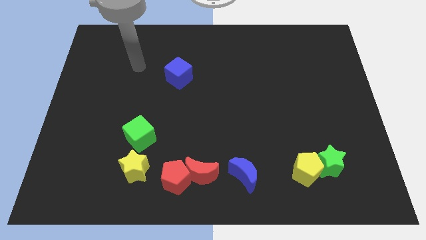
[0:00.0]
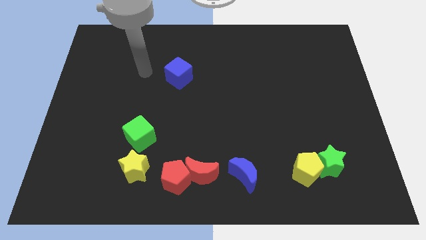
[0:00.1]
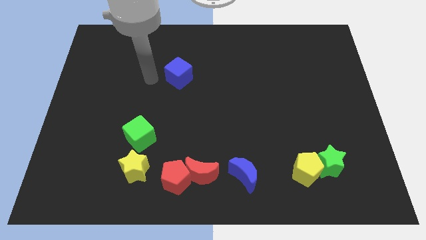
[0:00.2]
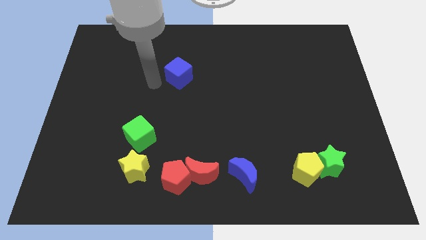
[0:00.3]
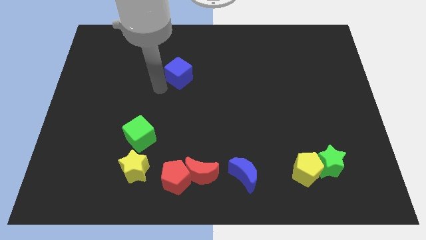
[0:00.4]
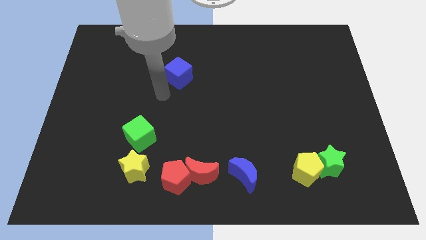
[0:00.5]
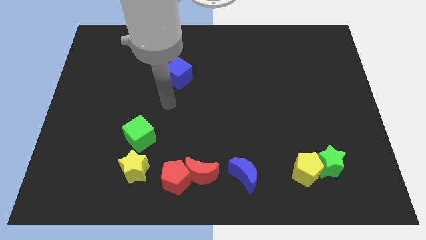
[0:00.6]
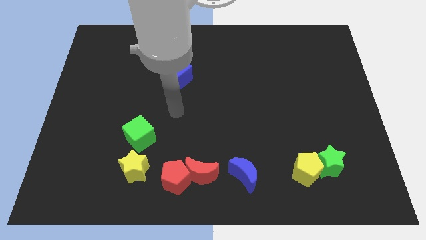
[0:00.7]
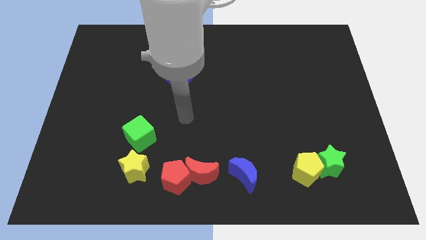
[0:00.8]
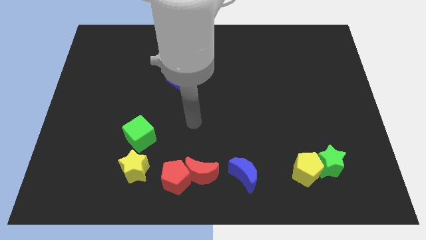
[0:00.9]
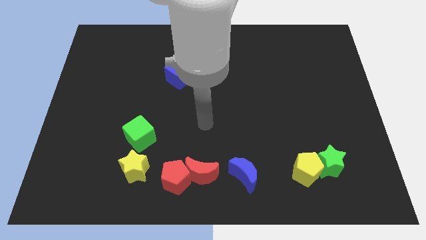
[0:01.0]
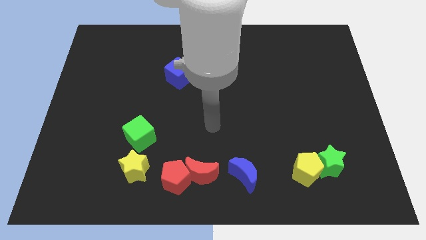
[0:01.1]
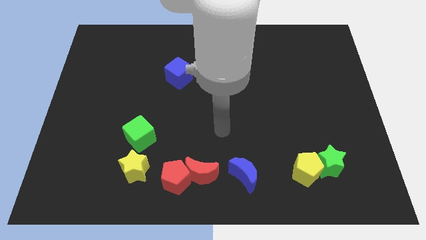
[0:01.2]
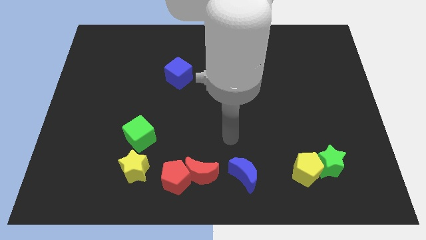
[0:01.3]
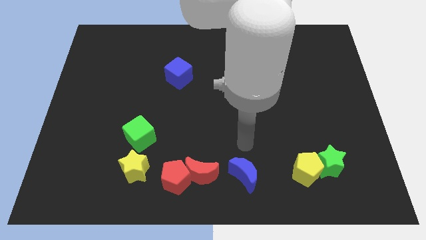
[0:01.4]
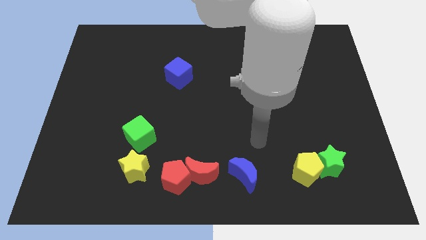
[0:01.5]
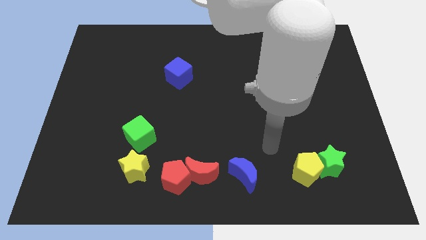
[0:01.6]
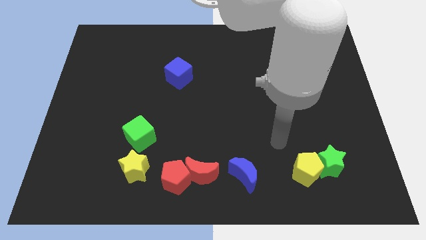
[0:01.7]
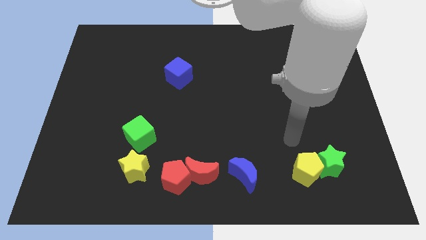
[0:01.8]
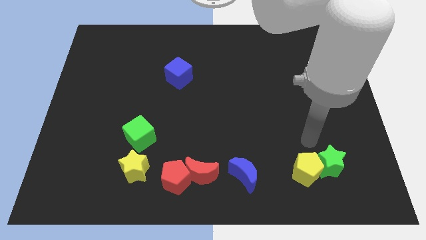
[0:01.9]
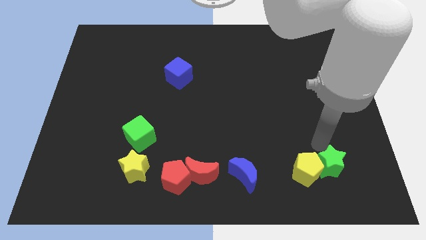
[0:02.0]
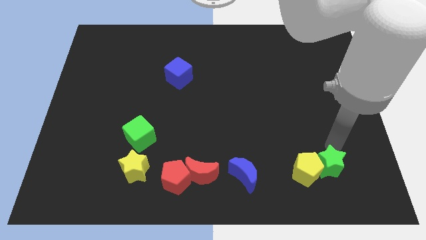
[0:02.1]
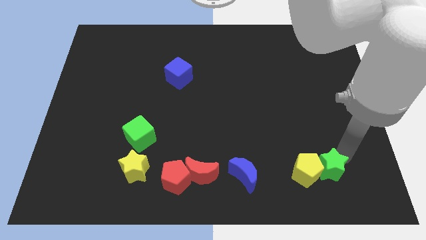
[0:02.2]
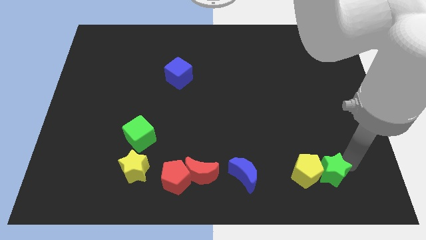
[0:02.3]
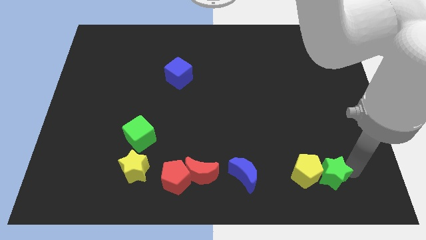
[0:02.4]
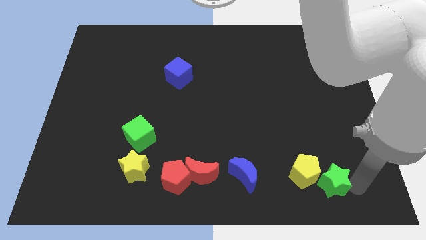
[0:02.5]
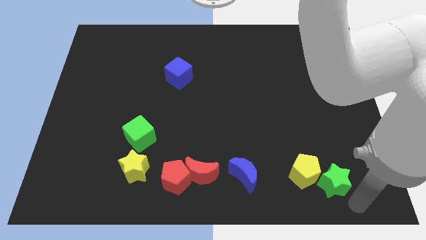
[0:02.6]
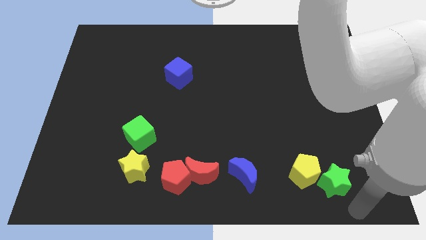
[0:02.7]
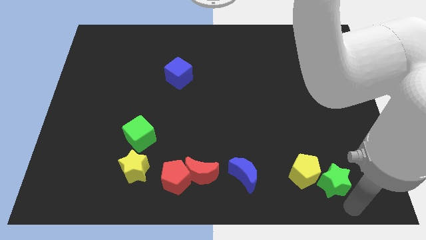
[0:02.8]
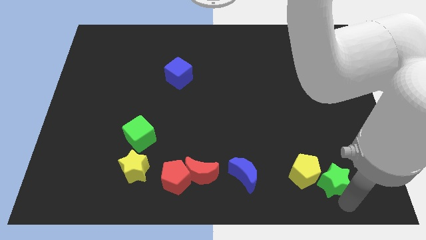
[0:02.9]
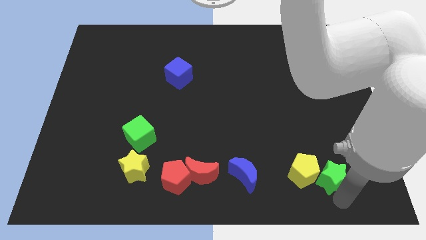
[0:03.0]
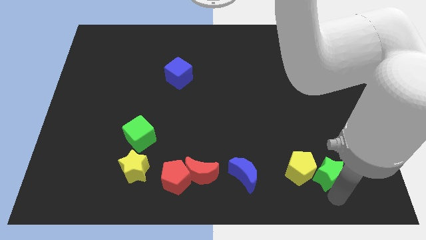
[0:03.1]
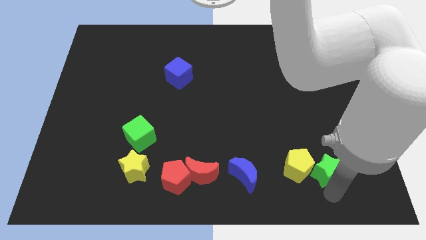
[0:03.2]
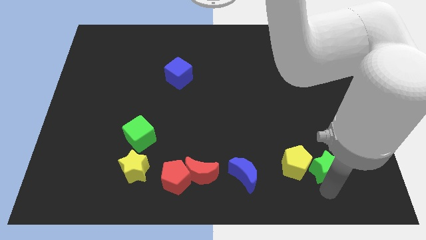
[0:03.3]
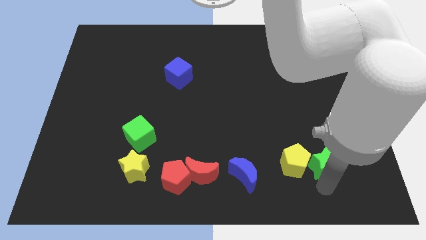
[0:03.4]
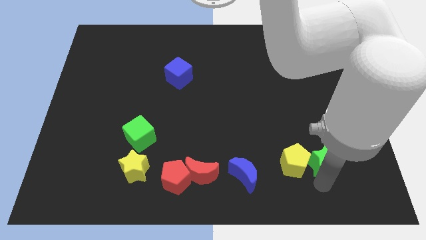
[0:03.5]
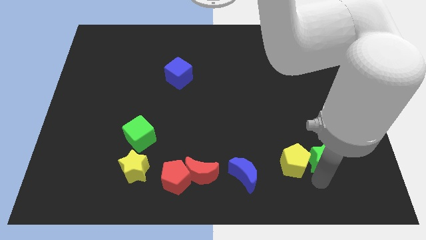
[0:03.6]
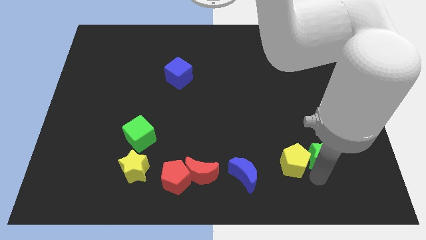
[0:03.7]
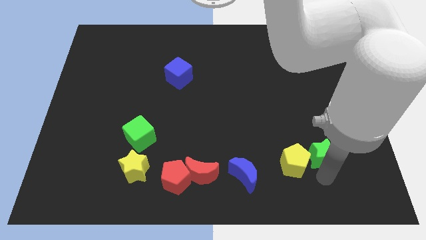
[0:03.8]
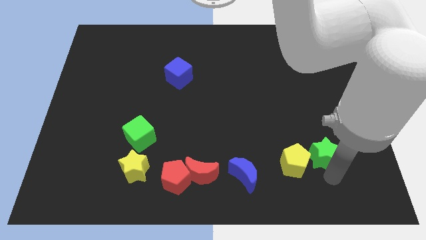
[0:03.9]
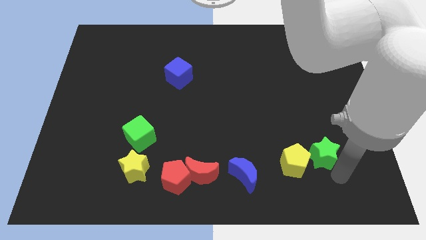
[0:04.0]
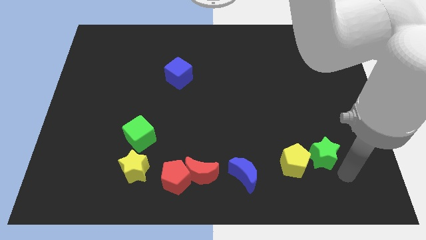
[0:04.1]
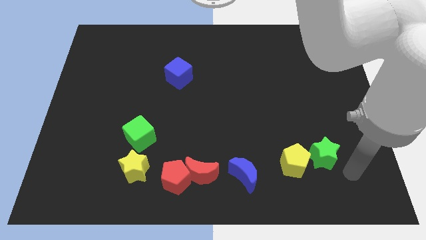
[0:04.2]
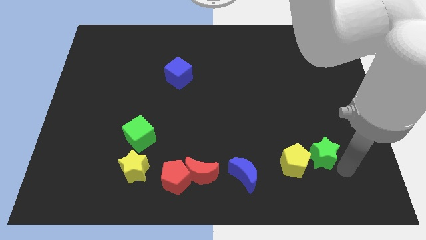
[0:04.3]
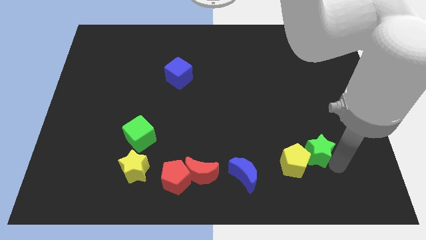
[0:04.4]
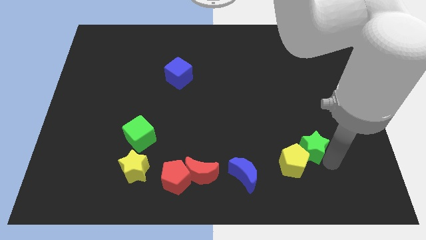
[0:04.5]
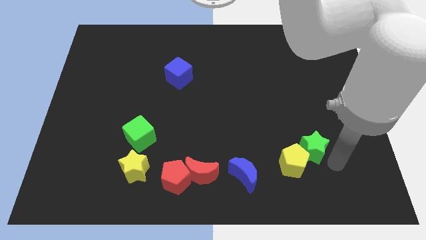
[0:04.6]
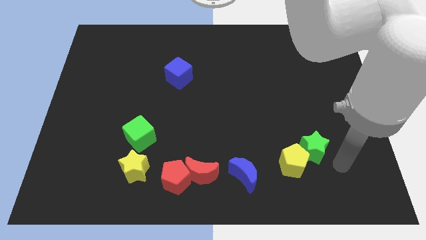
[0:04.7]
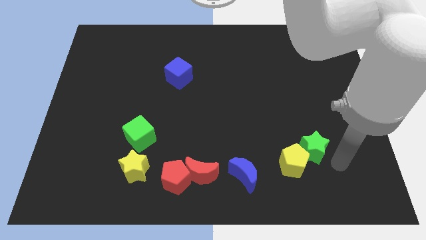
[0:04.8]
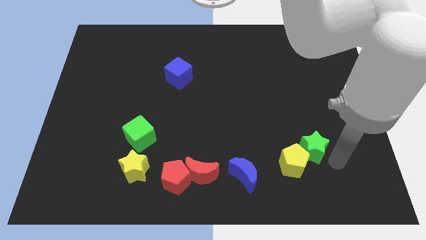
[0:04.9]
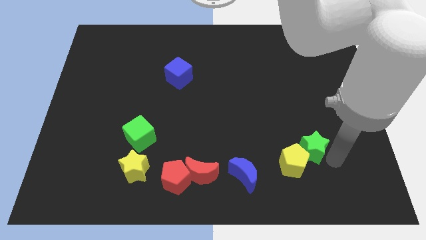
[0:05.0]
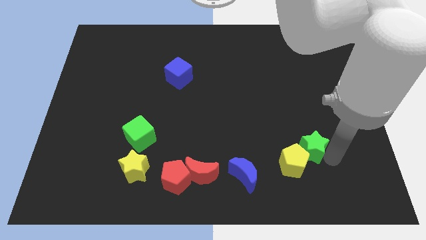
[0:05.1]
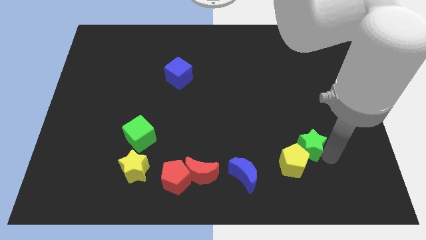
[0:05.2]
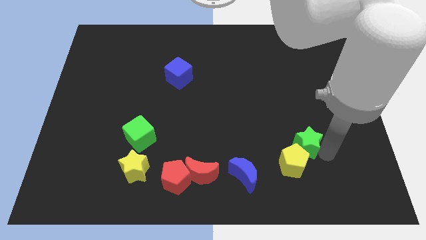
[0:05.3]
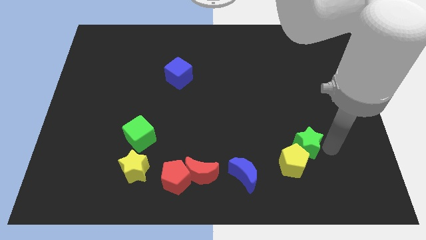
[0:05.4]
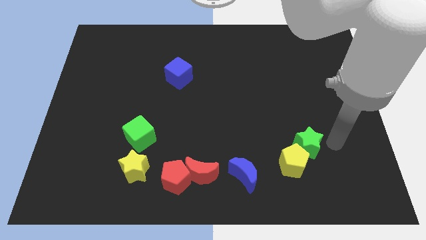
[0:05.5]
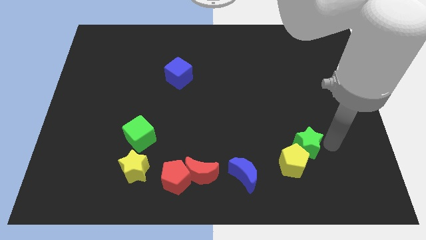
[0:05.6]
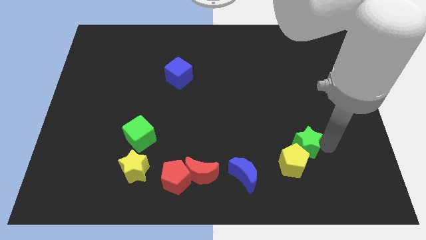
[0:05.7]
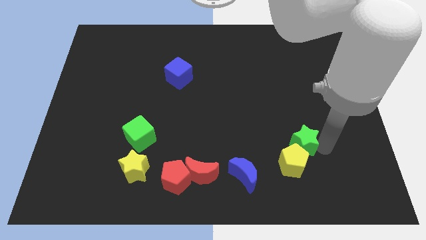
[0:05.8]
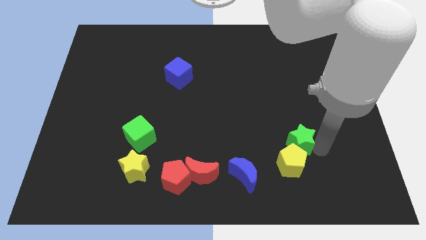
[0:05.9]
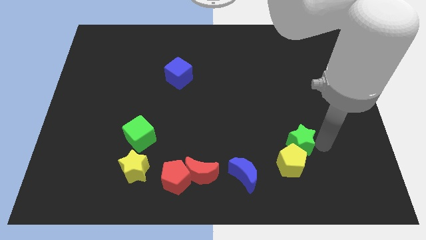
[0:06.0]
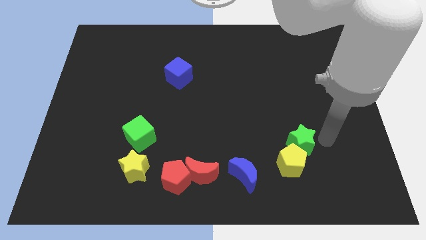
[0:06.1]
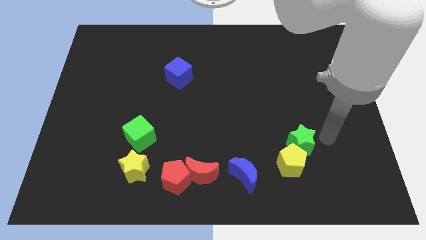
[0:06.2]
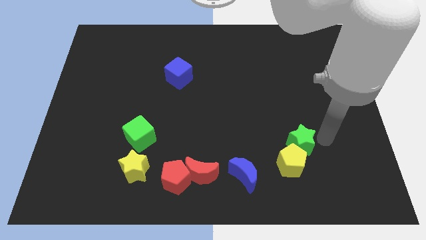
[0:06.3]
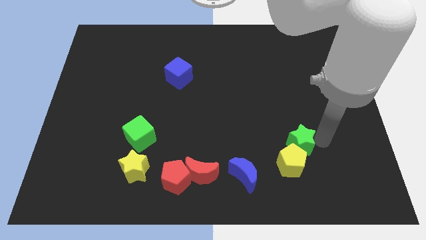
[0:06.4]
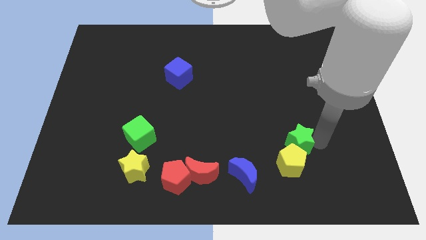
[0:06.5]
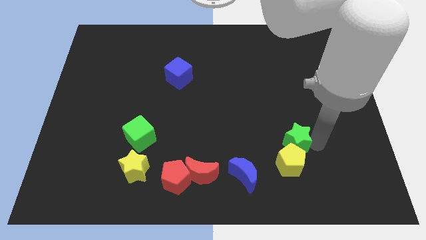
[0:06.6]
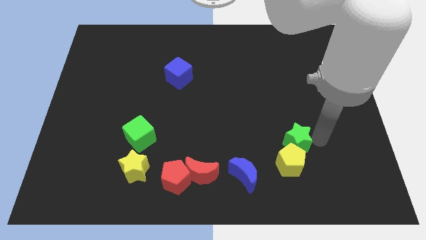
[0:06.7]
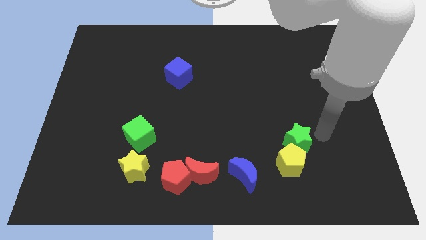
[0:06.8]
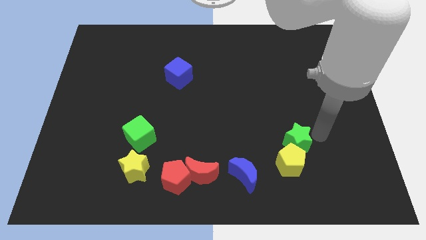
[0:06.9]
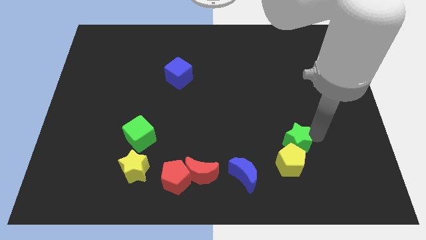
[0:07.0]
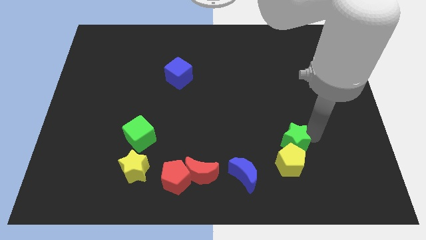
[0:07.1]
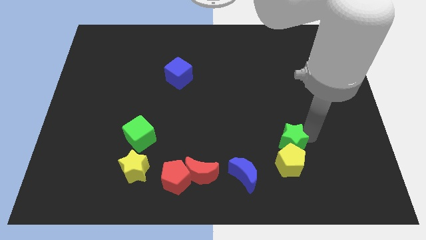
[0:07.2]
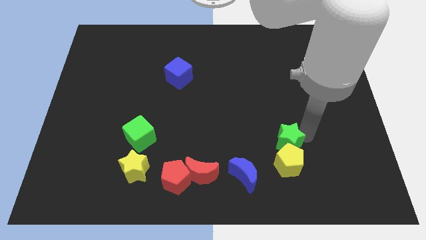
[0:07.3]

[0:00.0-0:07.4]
put the green star diagonally up and to the right of the blue moon
